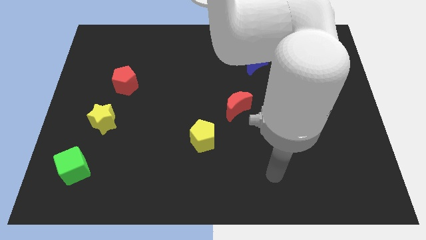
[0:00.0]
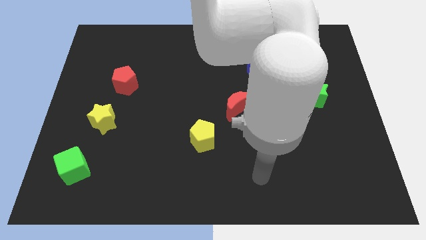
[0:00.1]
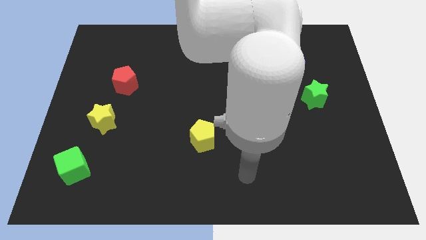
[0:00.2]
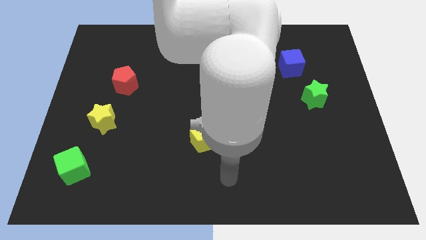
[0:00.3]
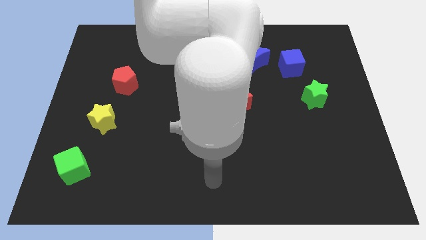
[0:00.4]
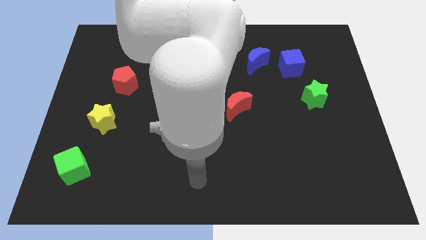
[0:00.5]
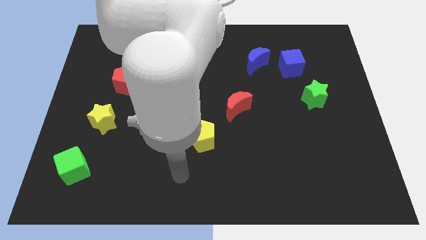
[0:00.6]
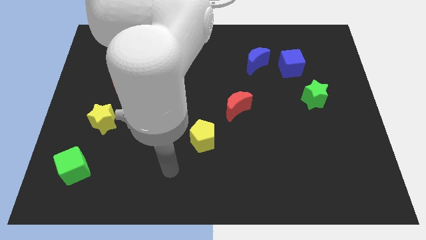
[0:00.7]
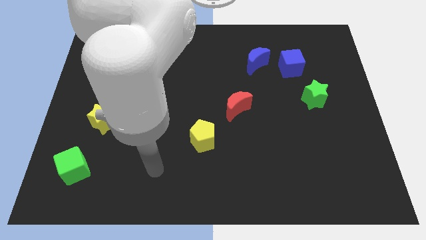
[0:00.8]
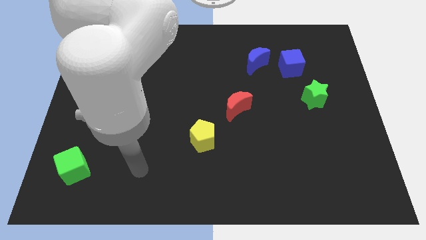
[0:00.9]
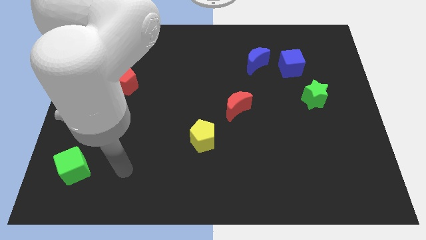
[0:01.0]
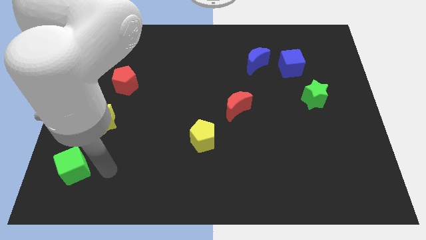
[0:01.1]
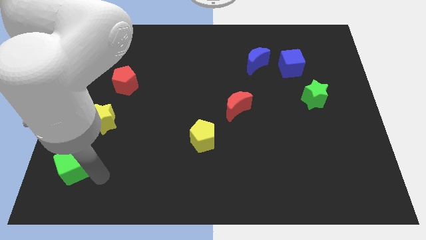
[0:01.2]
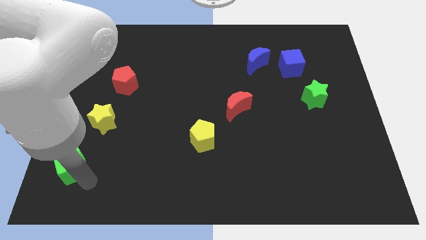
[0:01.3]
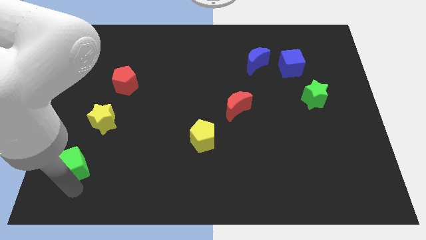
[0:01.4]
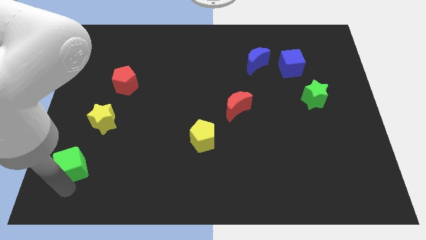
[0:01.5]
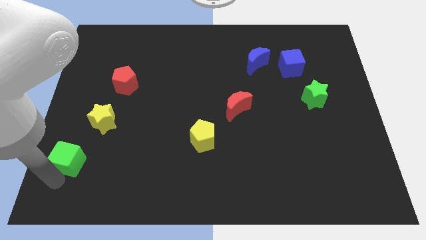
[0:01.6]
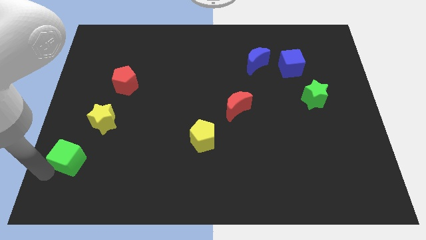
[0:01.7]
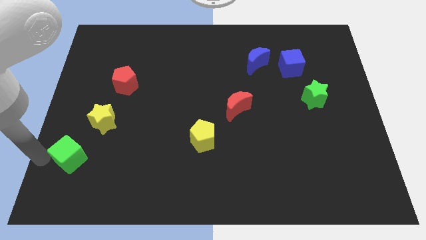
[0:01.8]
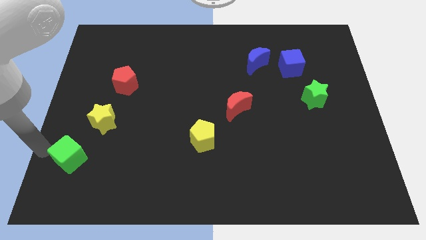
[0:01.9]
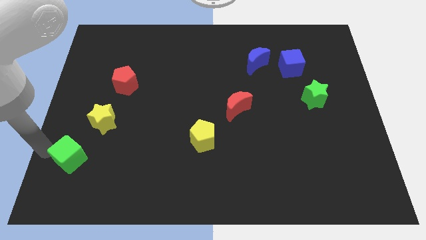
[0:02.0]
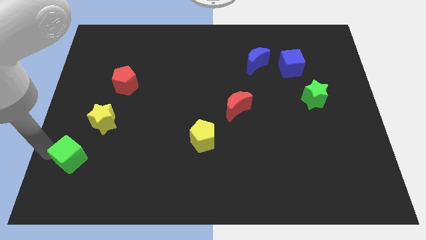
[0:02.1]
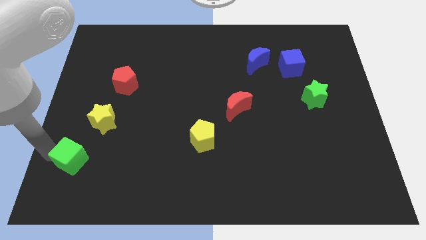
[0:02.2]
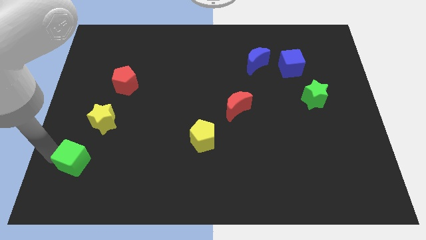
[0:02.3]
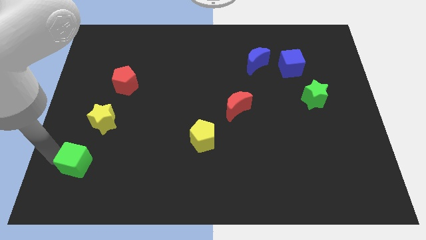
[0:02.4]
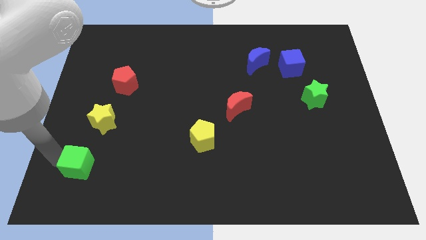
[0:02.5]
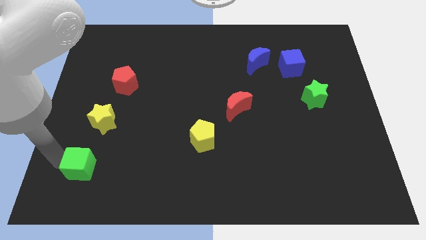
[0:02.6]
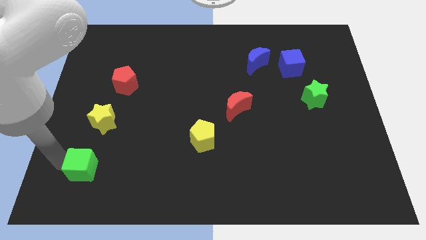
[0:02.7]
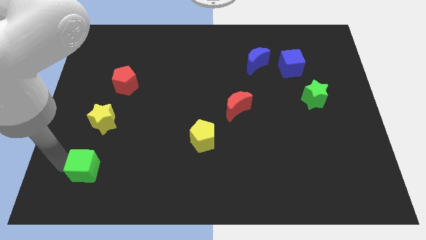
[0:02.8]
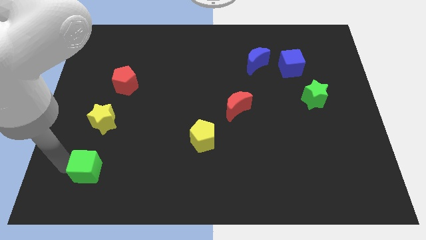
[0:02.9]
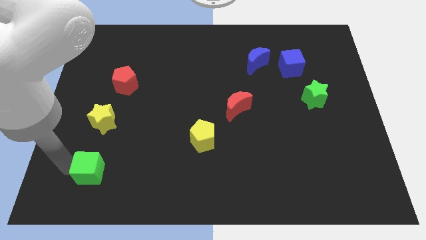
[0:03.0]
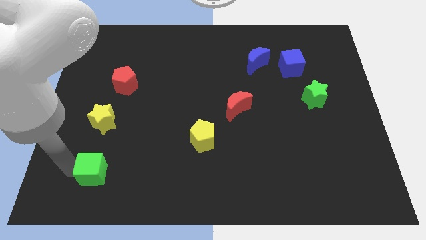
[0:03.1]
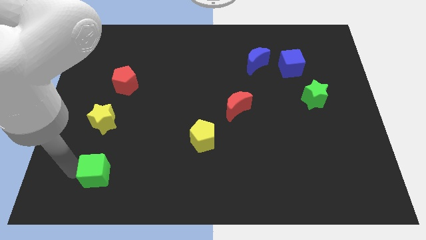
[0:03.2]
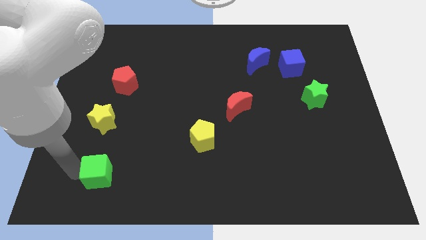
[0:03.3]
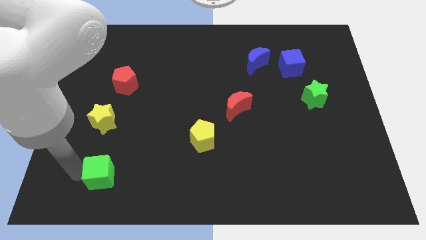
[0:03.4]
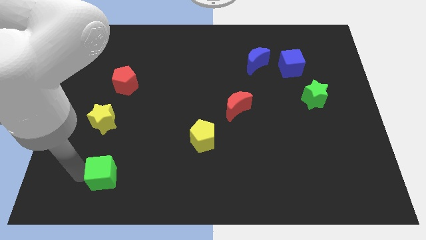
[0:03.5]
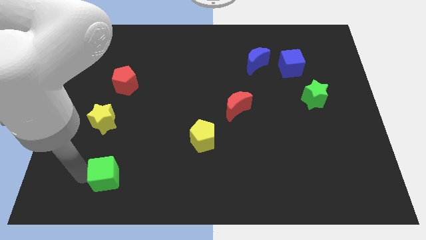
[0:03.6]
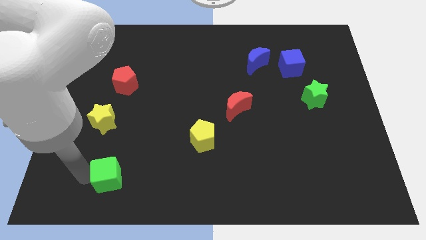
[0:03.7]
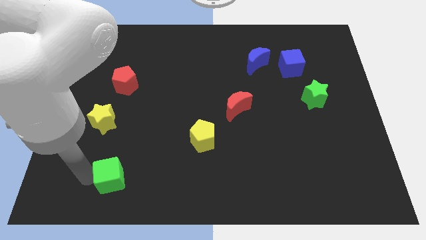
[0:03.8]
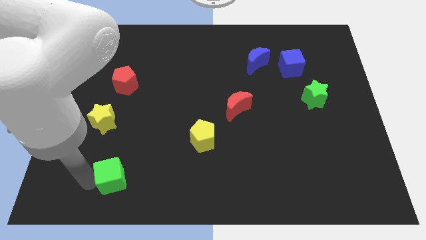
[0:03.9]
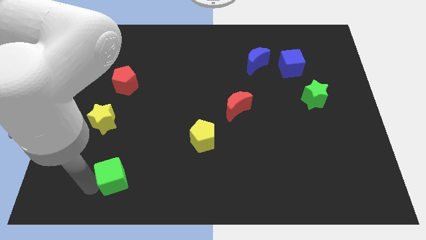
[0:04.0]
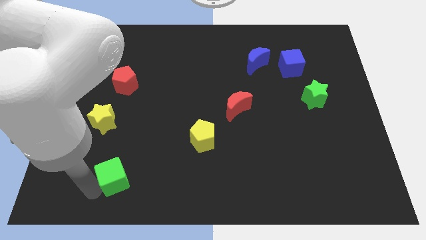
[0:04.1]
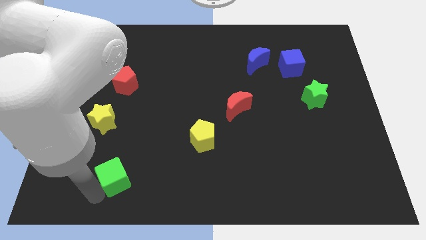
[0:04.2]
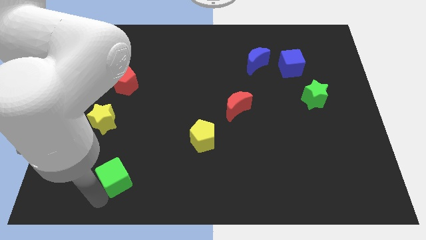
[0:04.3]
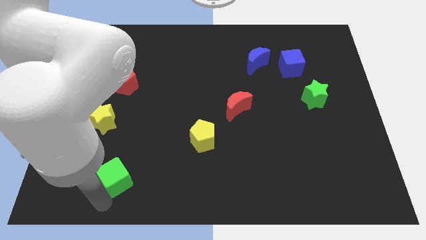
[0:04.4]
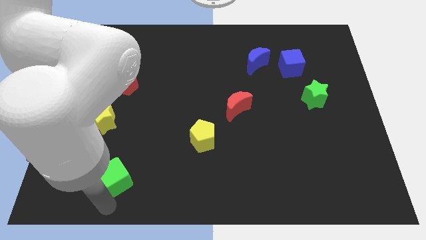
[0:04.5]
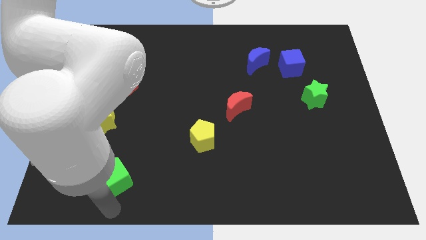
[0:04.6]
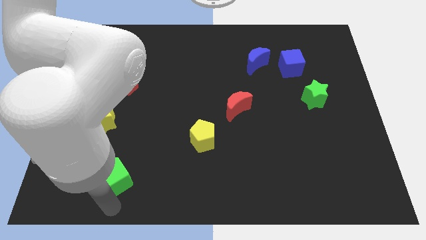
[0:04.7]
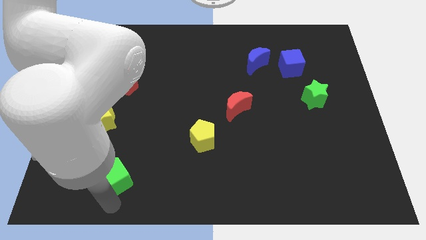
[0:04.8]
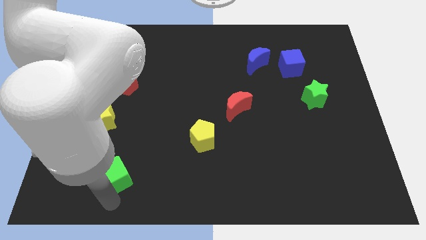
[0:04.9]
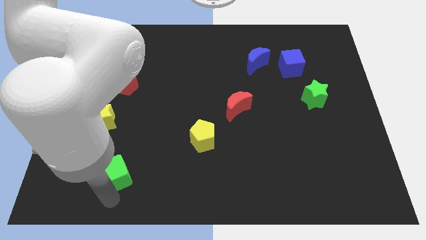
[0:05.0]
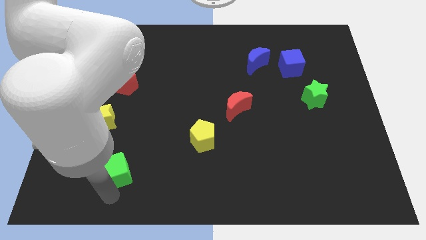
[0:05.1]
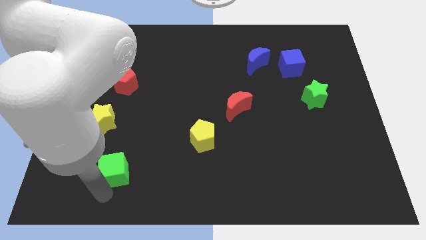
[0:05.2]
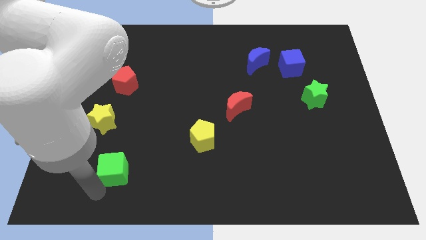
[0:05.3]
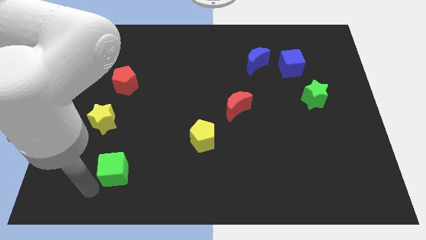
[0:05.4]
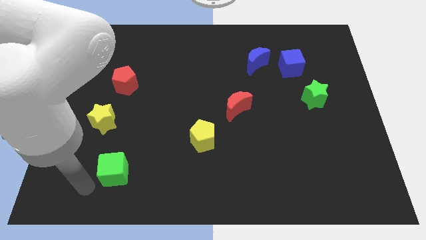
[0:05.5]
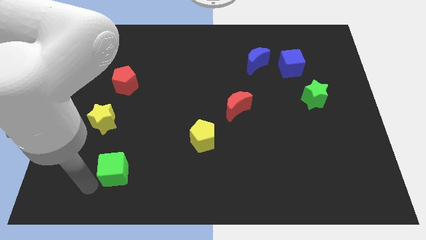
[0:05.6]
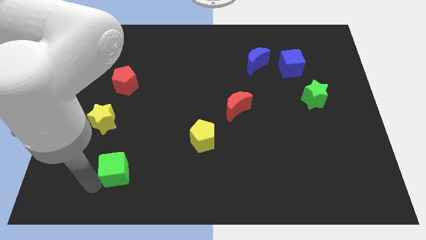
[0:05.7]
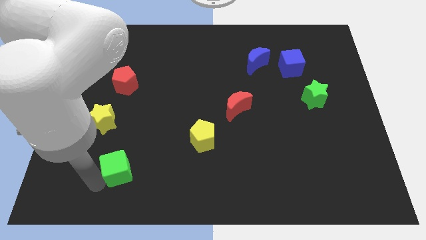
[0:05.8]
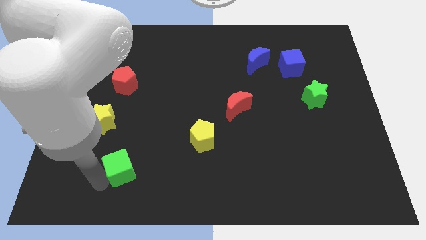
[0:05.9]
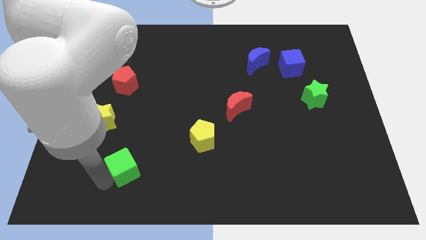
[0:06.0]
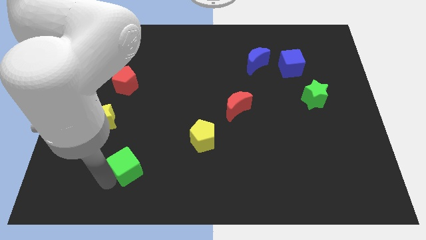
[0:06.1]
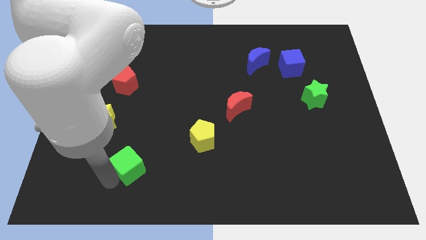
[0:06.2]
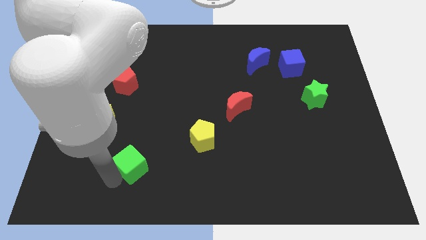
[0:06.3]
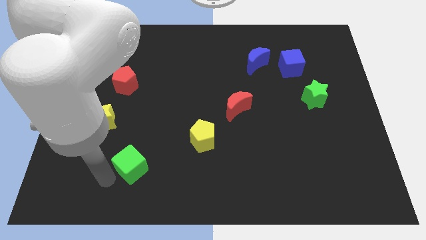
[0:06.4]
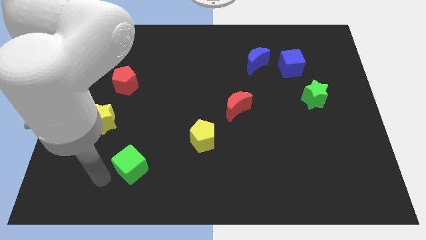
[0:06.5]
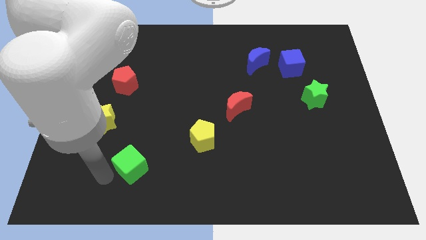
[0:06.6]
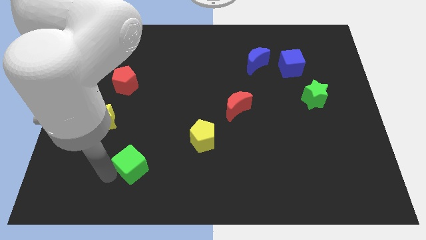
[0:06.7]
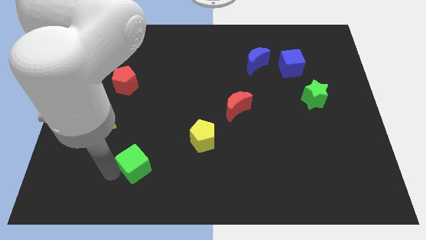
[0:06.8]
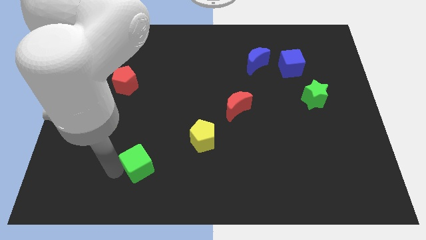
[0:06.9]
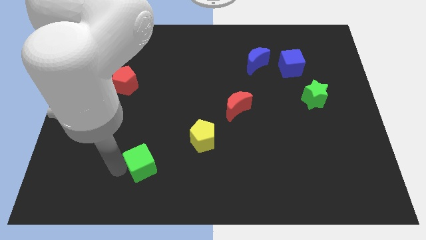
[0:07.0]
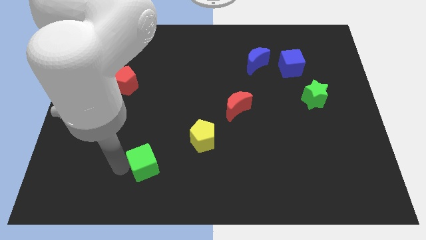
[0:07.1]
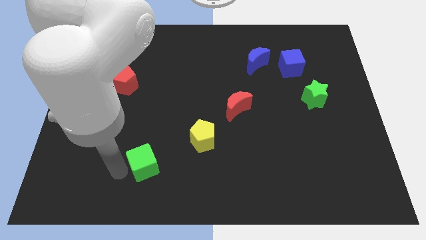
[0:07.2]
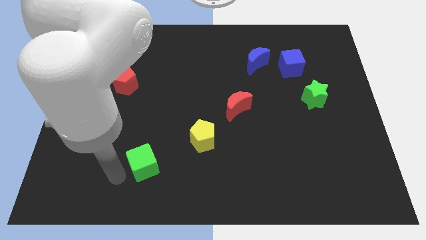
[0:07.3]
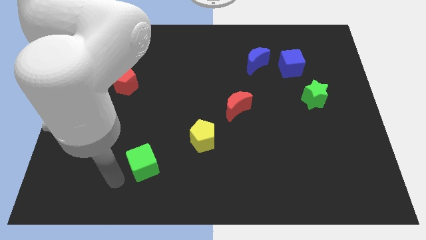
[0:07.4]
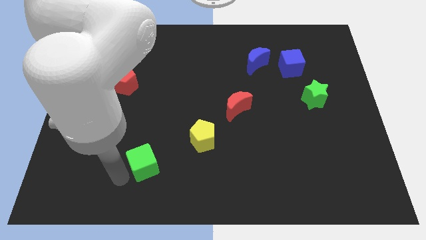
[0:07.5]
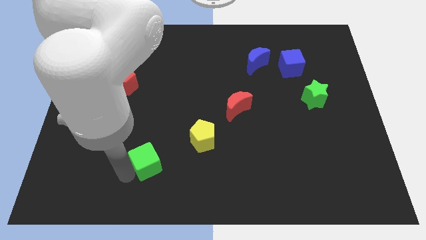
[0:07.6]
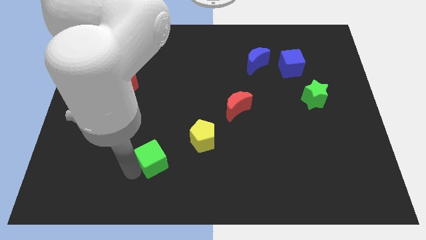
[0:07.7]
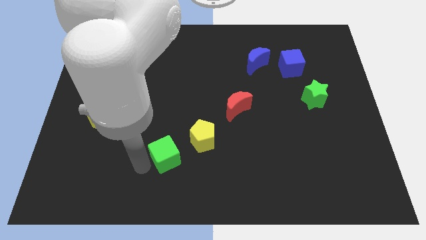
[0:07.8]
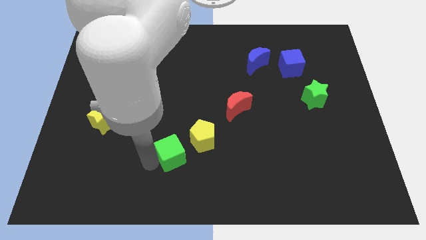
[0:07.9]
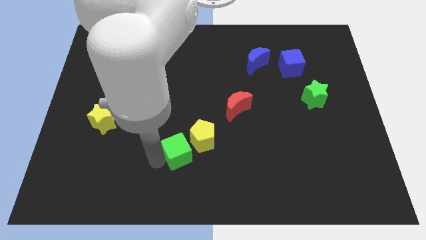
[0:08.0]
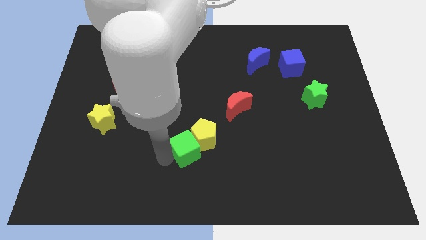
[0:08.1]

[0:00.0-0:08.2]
put the green cube next to the yellow pentagon
